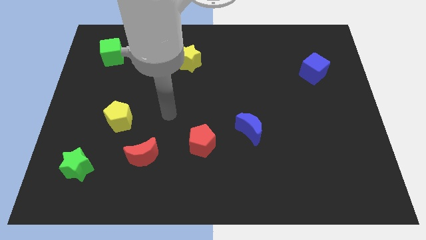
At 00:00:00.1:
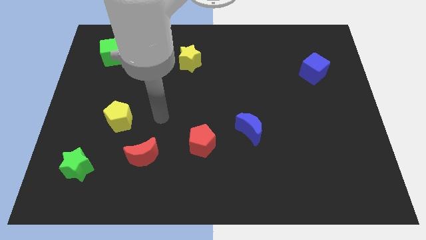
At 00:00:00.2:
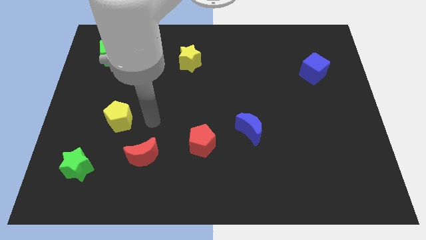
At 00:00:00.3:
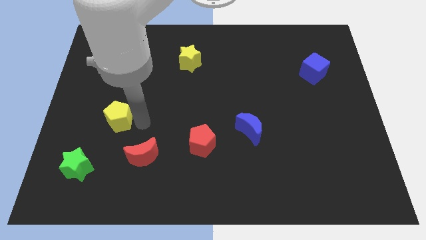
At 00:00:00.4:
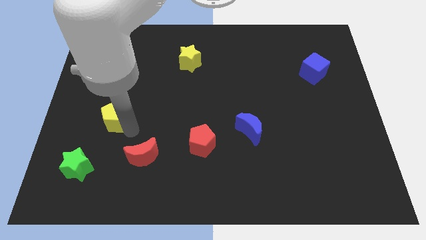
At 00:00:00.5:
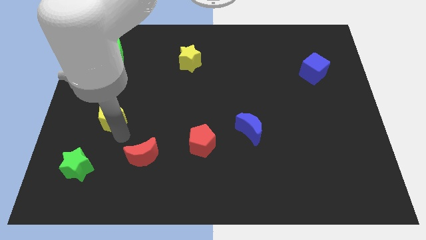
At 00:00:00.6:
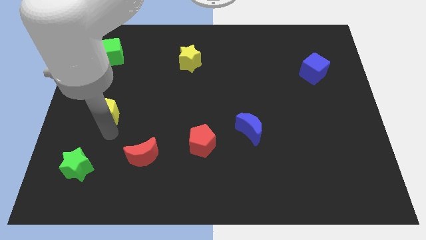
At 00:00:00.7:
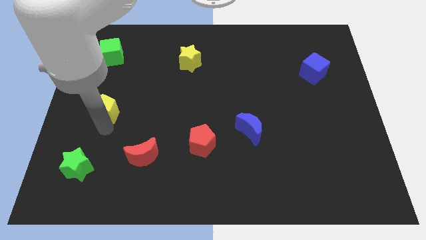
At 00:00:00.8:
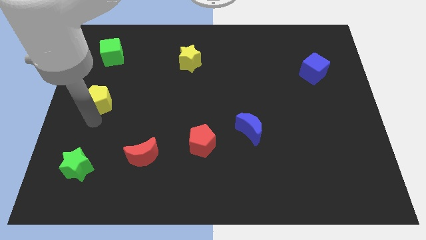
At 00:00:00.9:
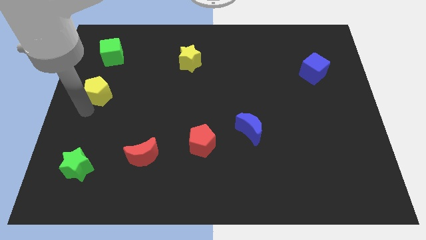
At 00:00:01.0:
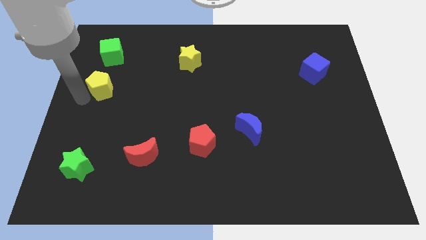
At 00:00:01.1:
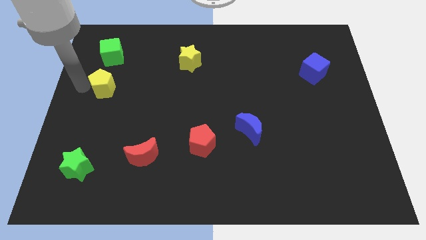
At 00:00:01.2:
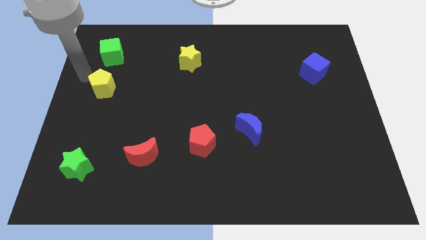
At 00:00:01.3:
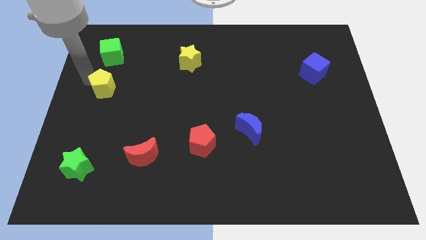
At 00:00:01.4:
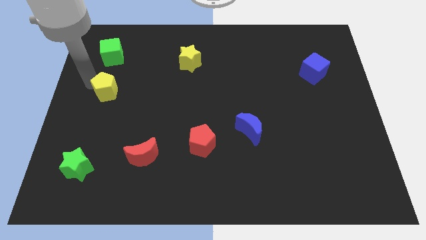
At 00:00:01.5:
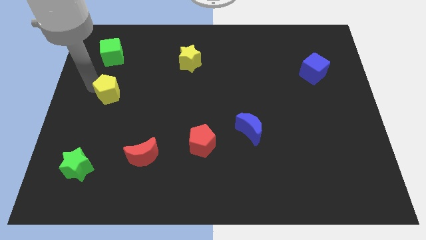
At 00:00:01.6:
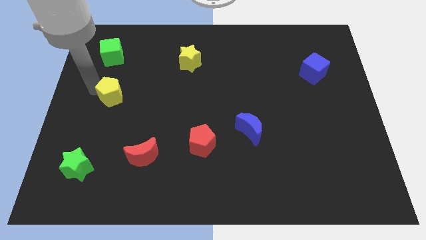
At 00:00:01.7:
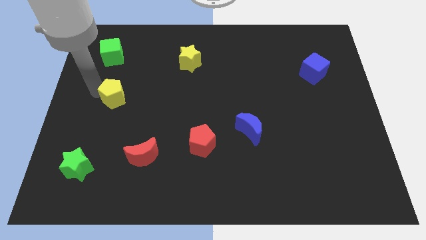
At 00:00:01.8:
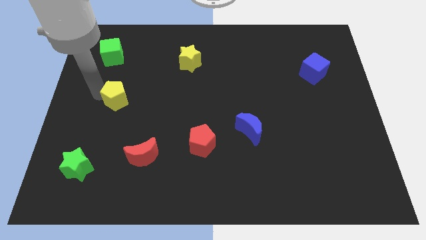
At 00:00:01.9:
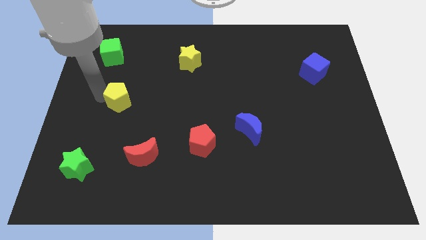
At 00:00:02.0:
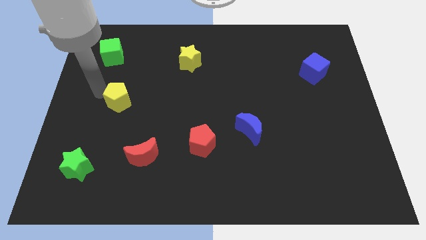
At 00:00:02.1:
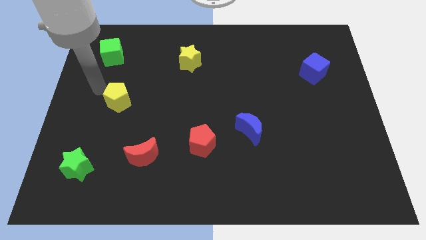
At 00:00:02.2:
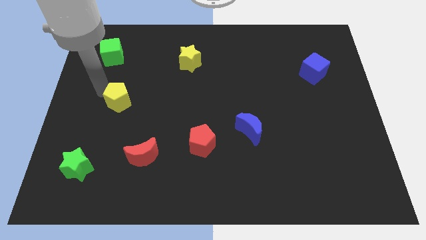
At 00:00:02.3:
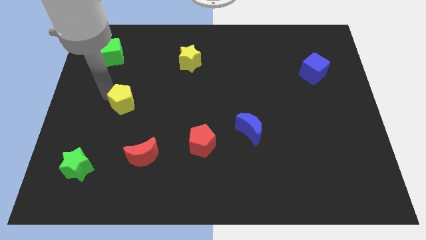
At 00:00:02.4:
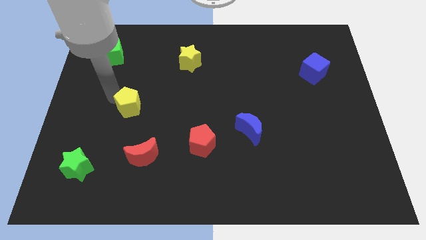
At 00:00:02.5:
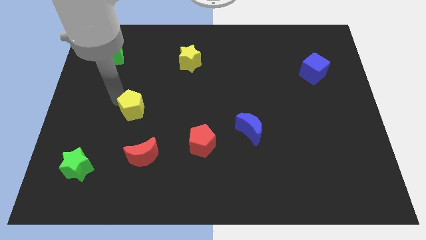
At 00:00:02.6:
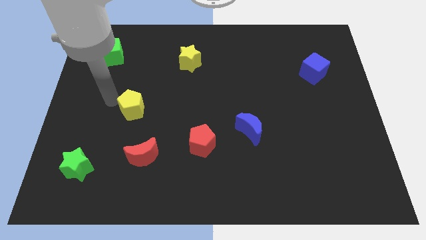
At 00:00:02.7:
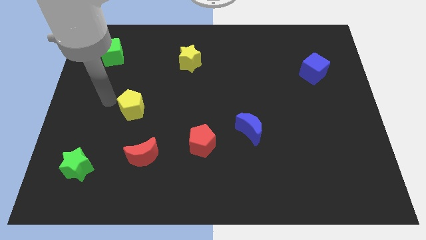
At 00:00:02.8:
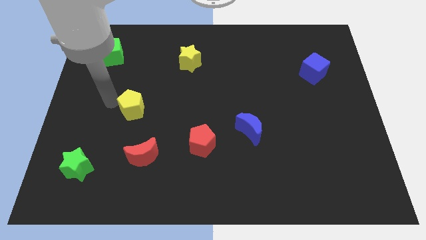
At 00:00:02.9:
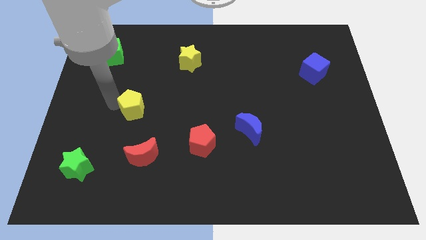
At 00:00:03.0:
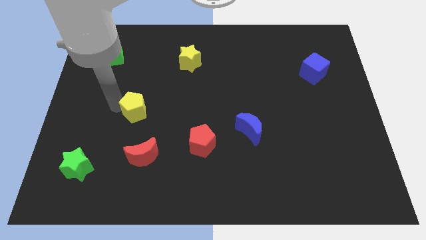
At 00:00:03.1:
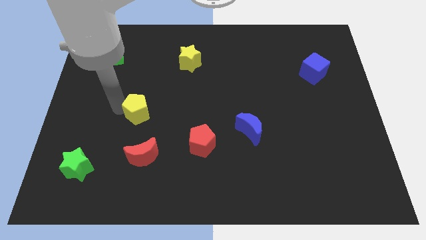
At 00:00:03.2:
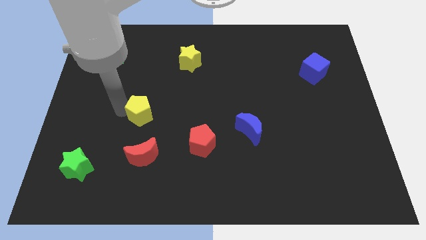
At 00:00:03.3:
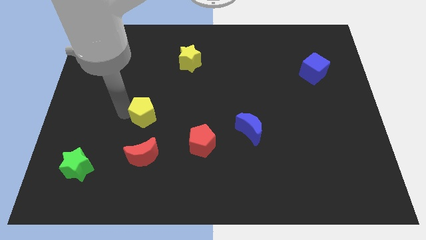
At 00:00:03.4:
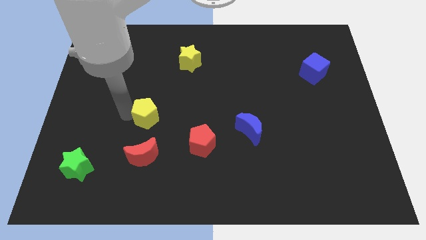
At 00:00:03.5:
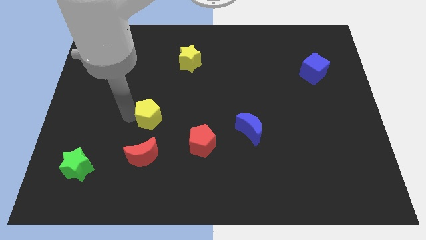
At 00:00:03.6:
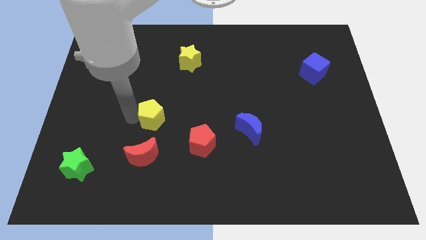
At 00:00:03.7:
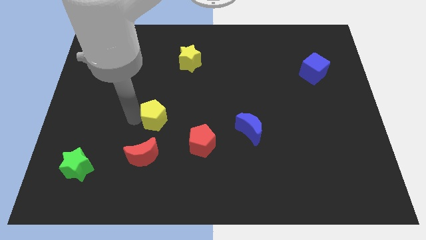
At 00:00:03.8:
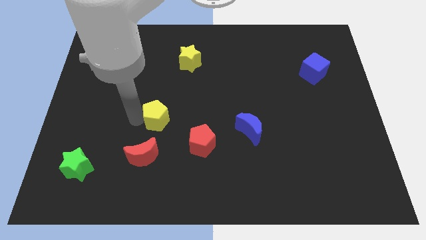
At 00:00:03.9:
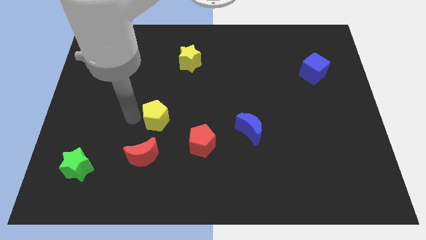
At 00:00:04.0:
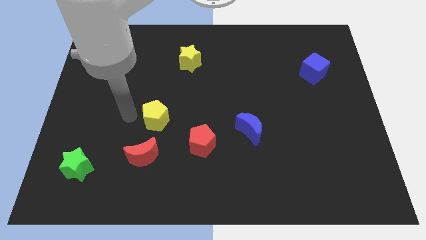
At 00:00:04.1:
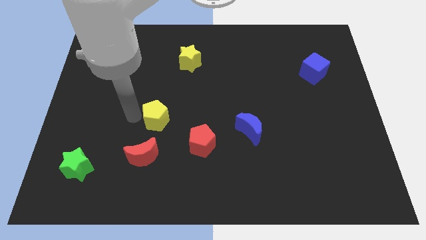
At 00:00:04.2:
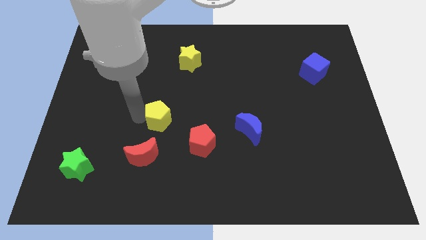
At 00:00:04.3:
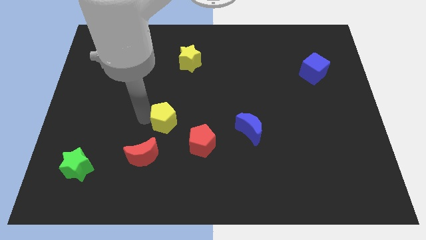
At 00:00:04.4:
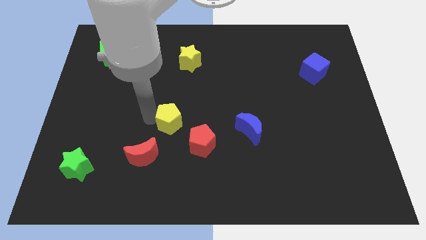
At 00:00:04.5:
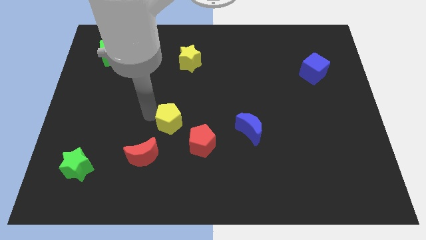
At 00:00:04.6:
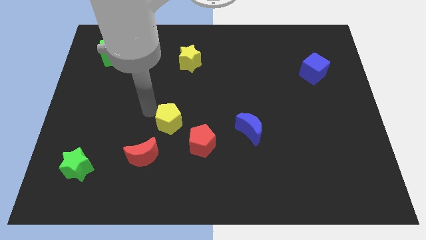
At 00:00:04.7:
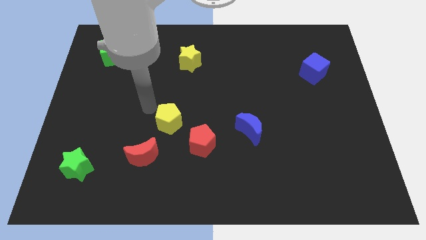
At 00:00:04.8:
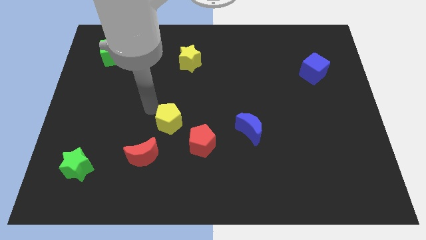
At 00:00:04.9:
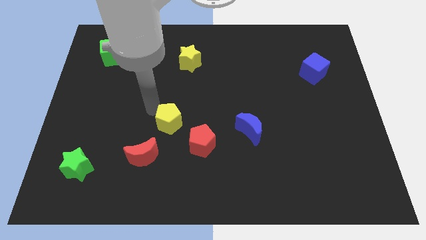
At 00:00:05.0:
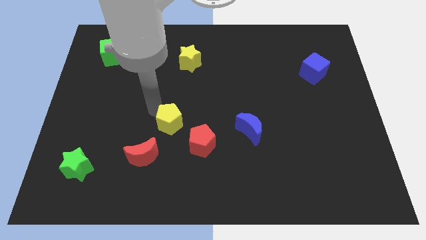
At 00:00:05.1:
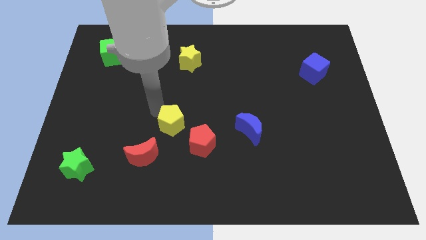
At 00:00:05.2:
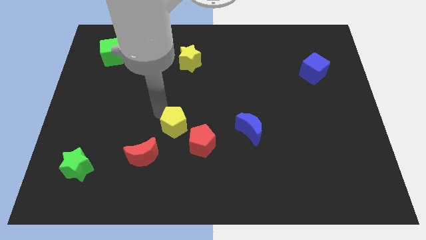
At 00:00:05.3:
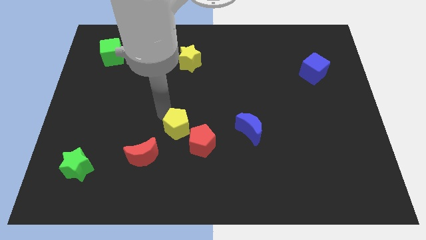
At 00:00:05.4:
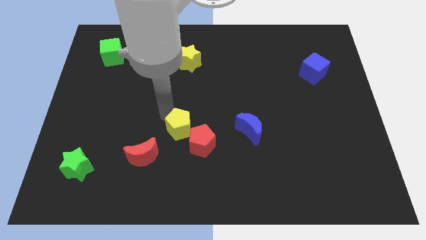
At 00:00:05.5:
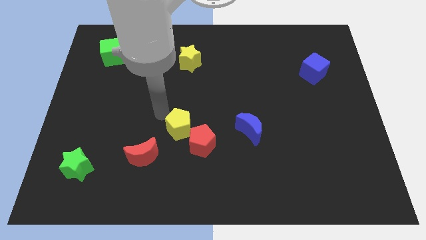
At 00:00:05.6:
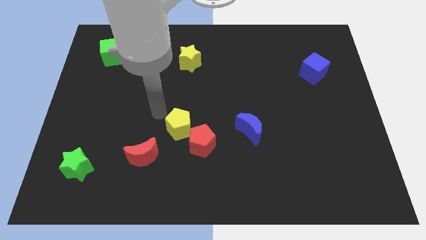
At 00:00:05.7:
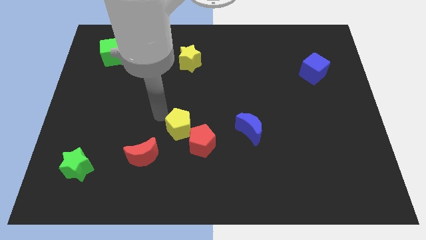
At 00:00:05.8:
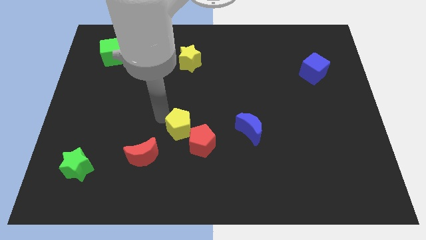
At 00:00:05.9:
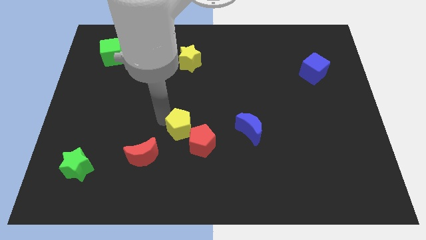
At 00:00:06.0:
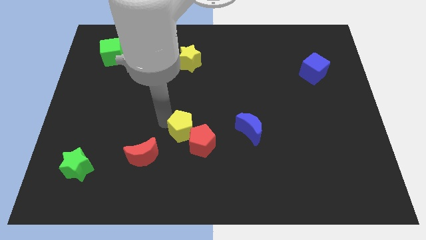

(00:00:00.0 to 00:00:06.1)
push the yellow pentagon to the red pentagon

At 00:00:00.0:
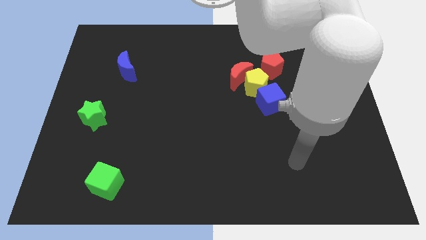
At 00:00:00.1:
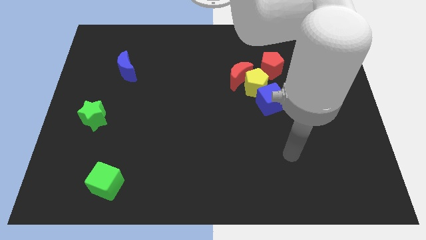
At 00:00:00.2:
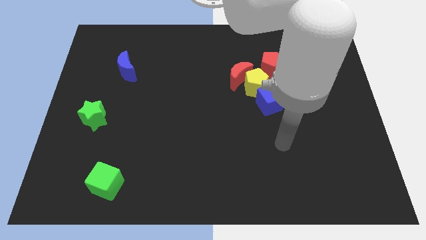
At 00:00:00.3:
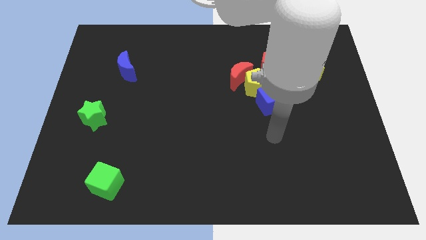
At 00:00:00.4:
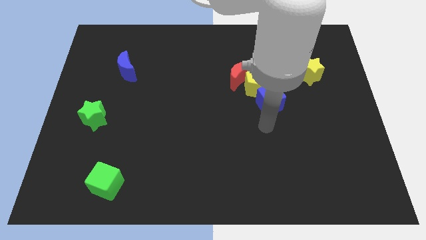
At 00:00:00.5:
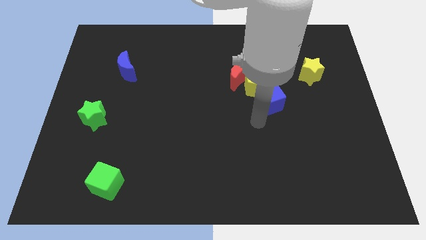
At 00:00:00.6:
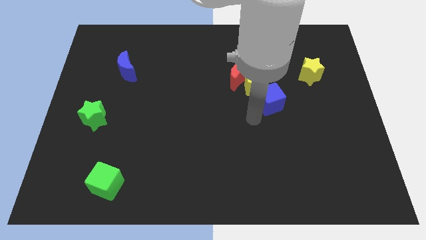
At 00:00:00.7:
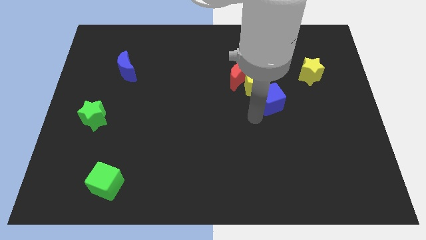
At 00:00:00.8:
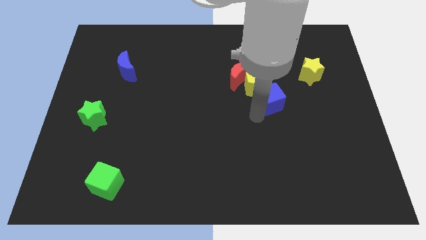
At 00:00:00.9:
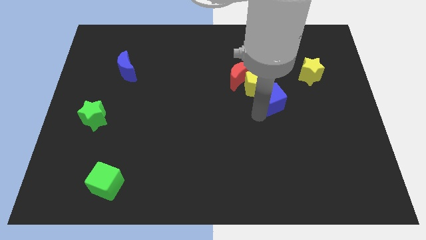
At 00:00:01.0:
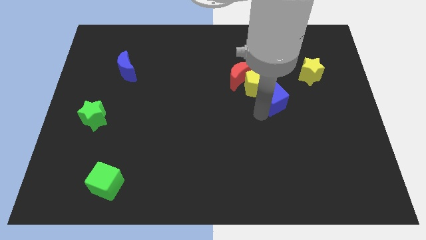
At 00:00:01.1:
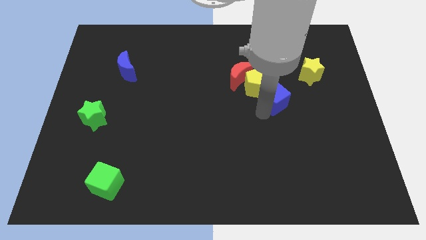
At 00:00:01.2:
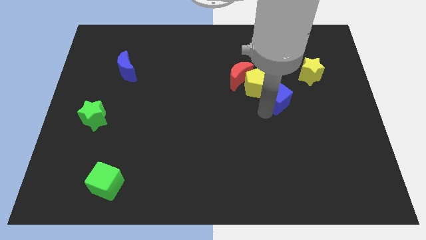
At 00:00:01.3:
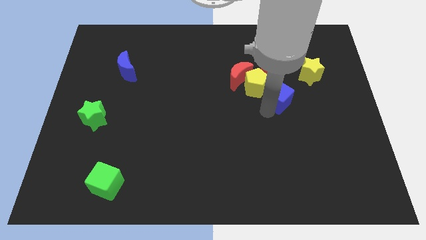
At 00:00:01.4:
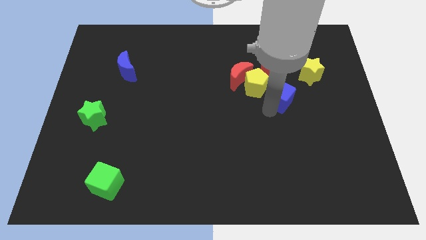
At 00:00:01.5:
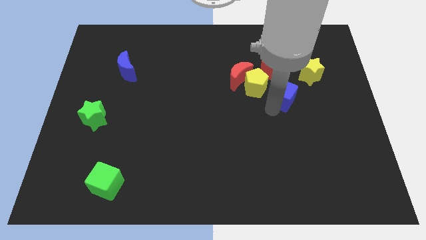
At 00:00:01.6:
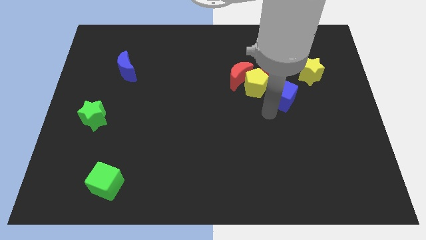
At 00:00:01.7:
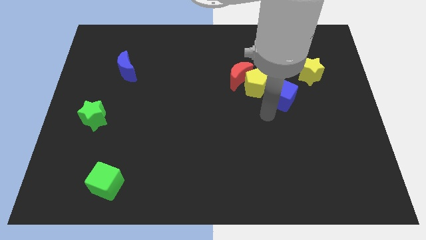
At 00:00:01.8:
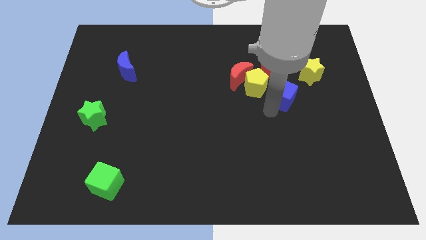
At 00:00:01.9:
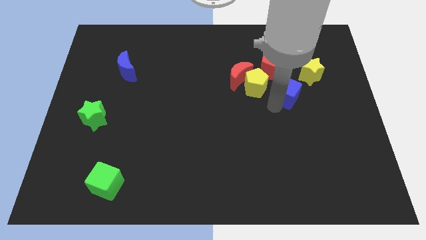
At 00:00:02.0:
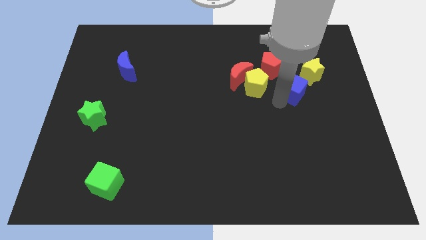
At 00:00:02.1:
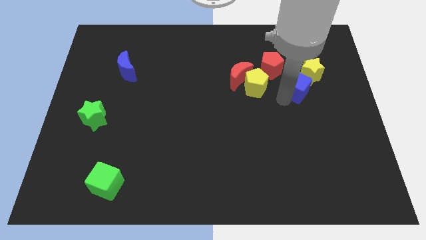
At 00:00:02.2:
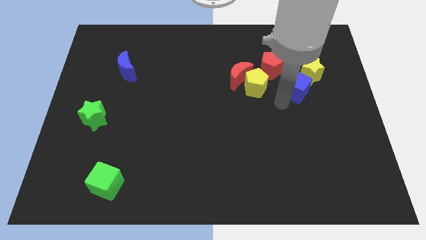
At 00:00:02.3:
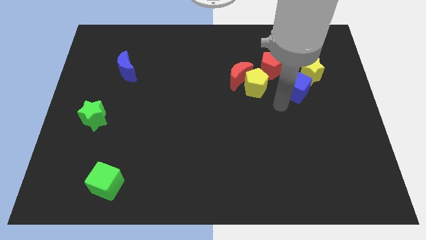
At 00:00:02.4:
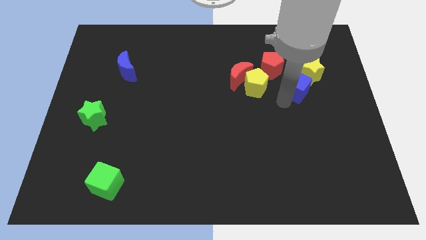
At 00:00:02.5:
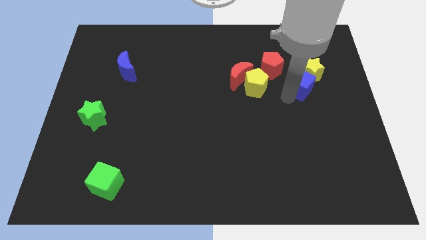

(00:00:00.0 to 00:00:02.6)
move the blue cube close to the yellow star
